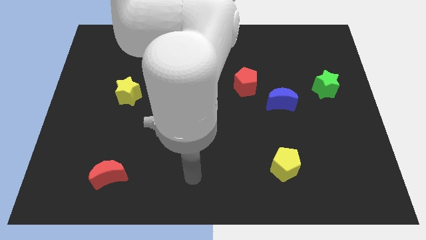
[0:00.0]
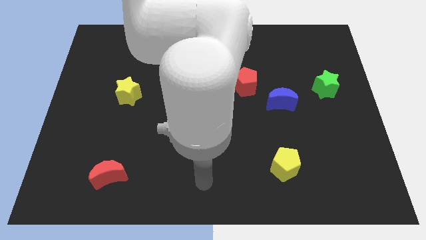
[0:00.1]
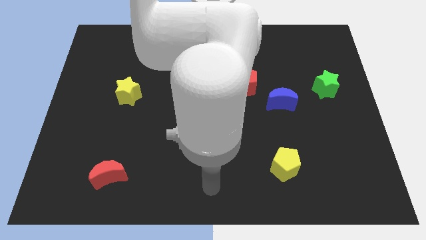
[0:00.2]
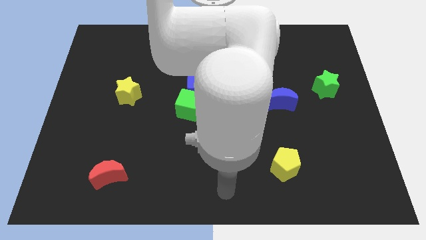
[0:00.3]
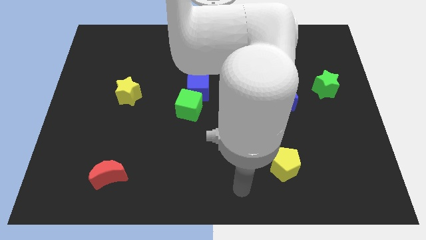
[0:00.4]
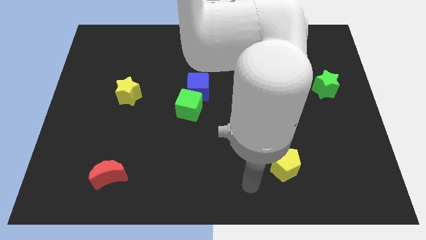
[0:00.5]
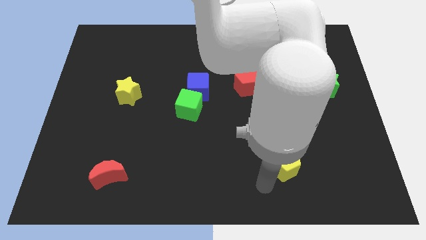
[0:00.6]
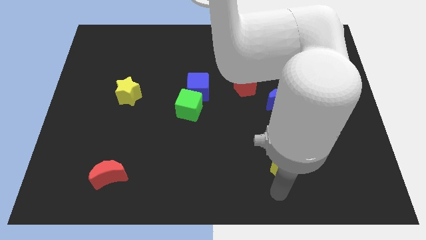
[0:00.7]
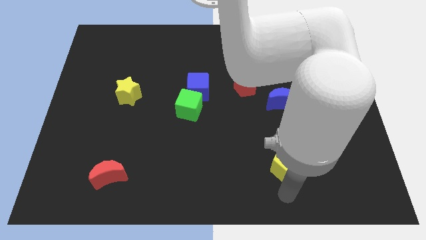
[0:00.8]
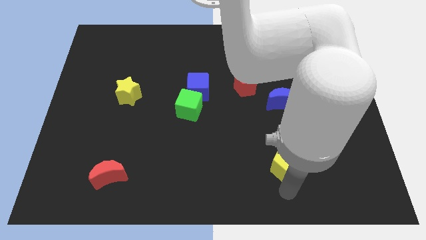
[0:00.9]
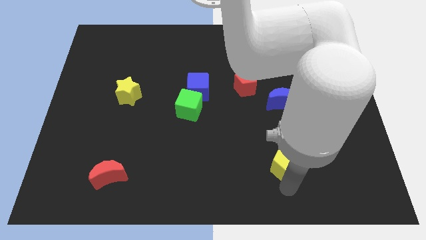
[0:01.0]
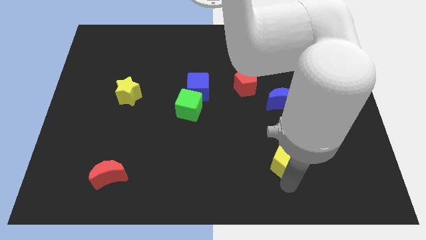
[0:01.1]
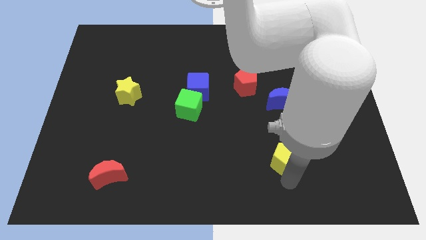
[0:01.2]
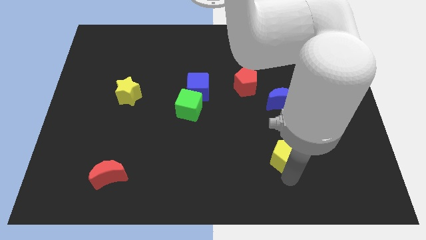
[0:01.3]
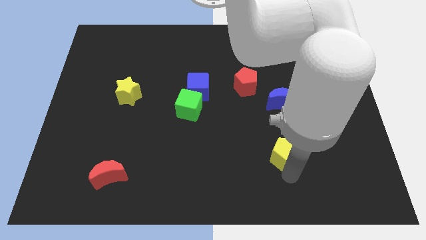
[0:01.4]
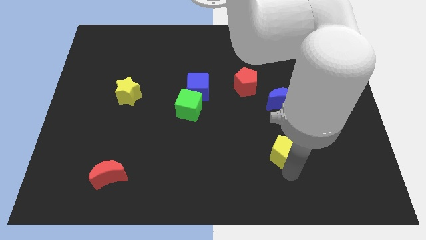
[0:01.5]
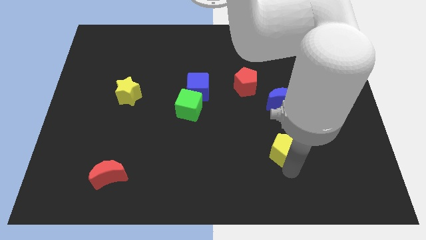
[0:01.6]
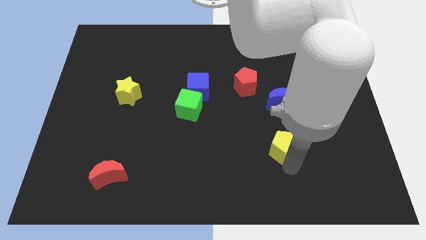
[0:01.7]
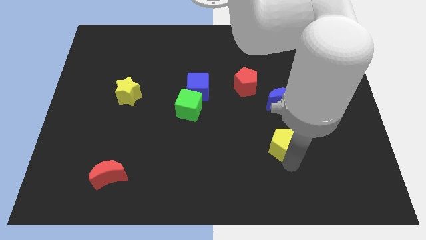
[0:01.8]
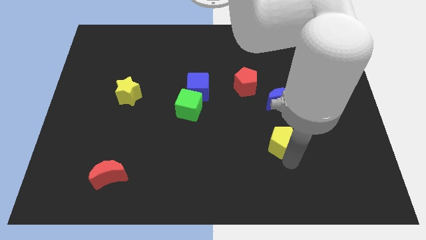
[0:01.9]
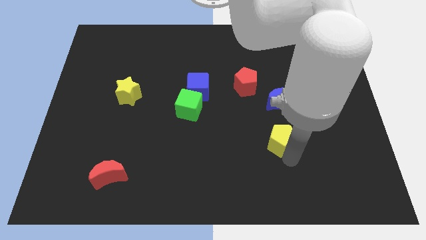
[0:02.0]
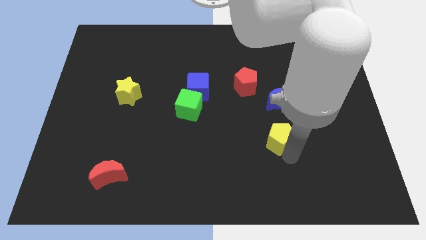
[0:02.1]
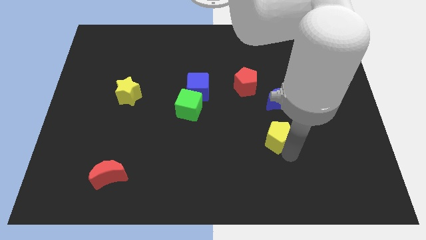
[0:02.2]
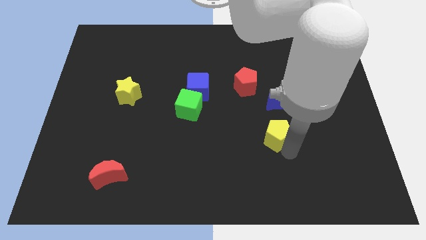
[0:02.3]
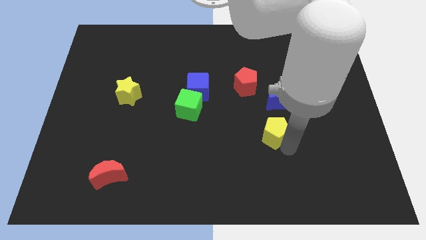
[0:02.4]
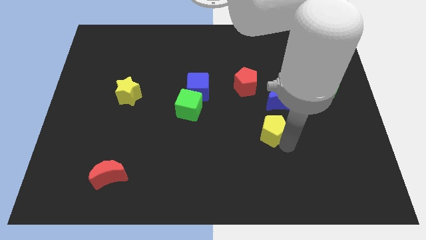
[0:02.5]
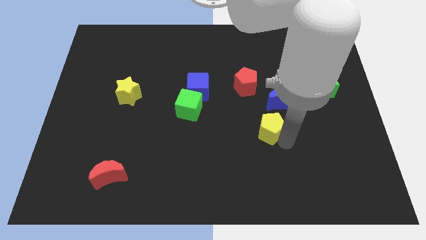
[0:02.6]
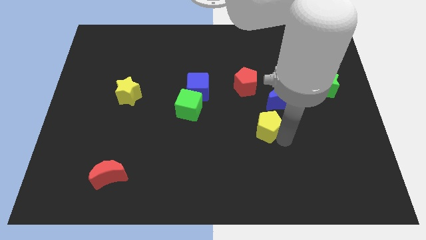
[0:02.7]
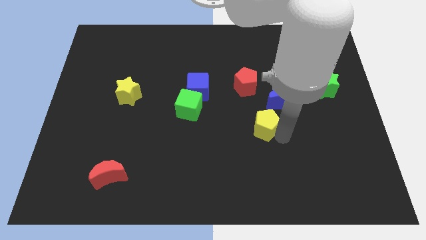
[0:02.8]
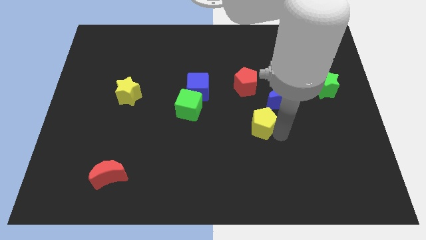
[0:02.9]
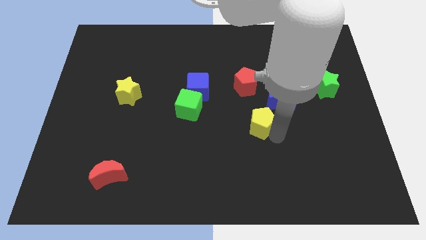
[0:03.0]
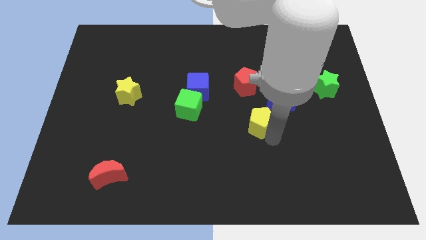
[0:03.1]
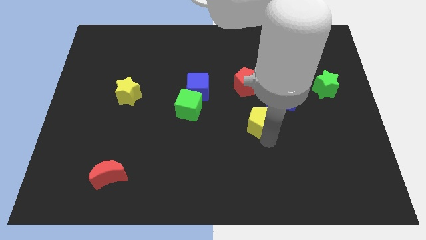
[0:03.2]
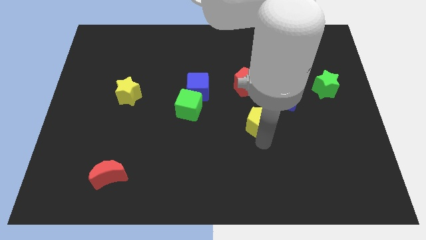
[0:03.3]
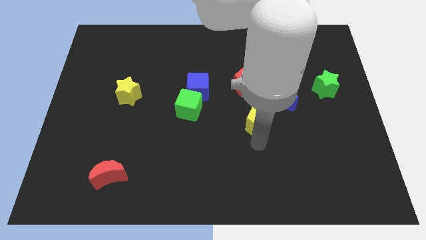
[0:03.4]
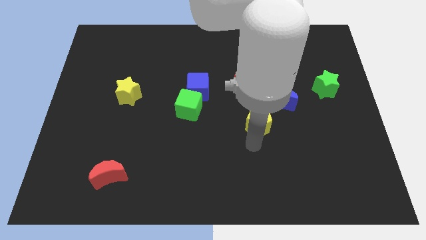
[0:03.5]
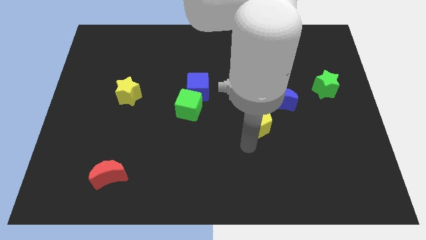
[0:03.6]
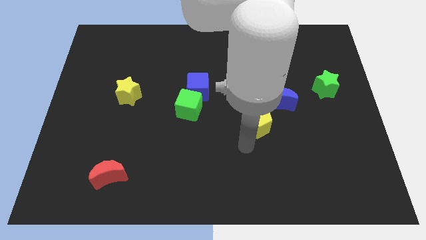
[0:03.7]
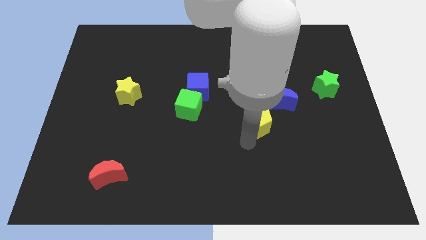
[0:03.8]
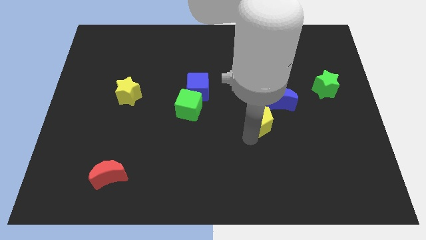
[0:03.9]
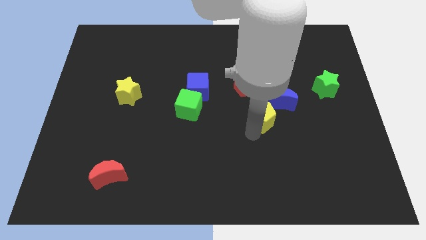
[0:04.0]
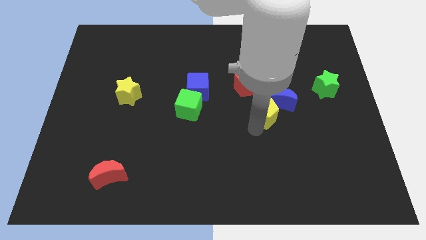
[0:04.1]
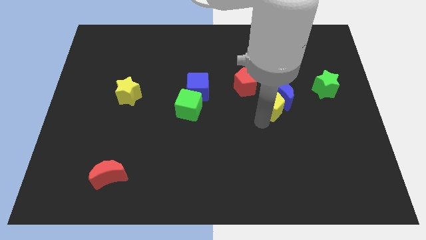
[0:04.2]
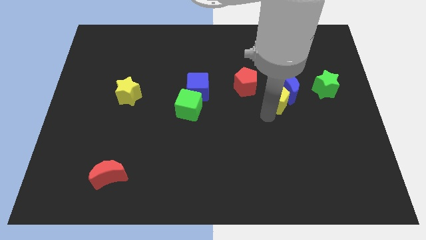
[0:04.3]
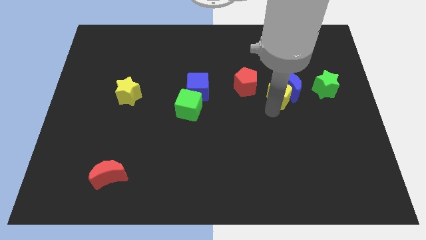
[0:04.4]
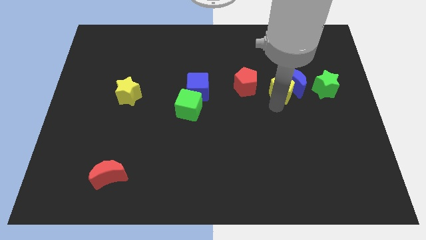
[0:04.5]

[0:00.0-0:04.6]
push the yellow pentagon upwards

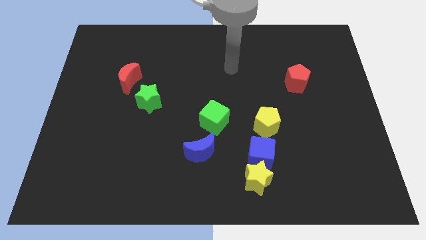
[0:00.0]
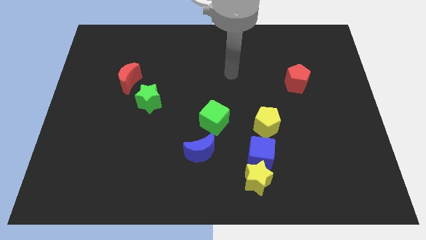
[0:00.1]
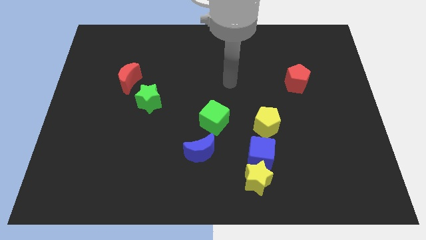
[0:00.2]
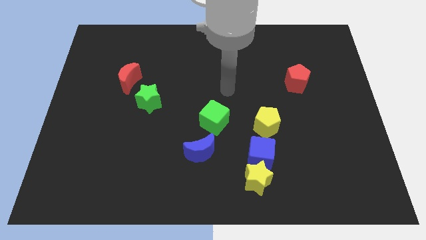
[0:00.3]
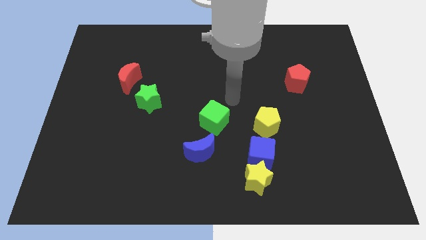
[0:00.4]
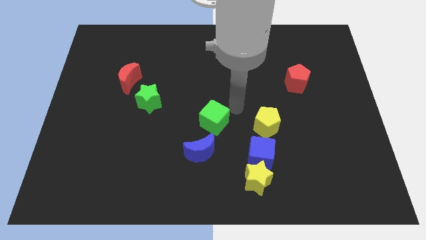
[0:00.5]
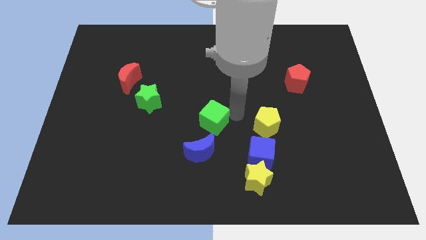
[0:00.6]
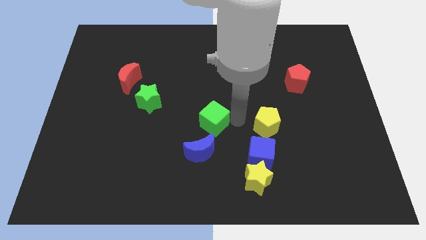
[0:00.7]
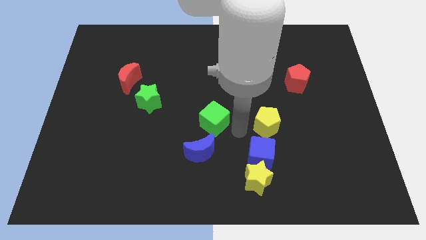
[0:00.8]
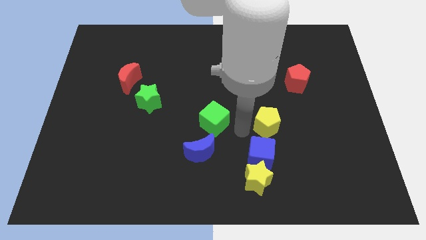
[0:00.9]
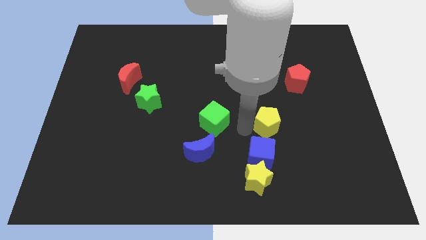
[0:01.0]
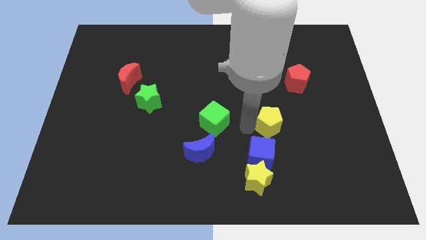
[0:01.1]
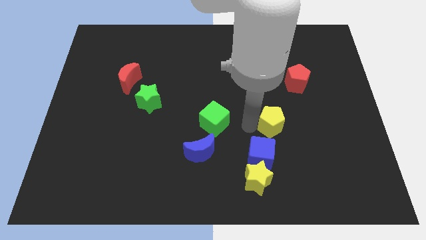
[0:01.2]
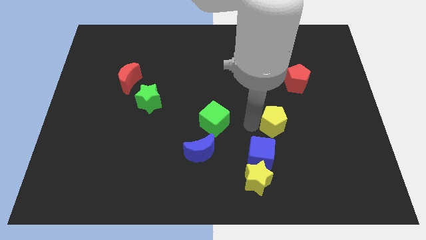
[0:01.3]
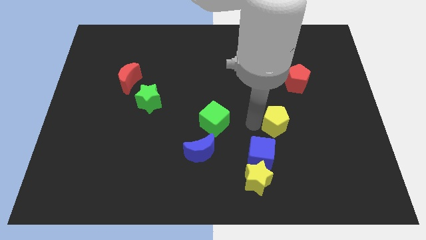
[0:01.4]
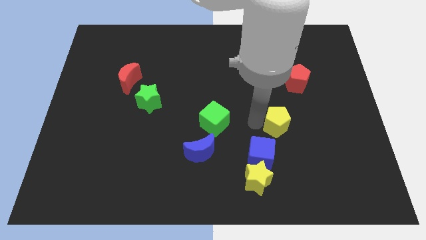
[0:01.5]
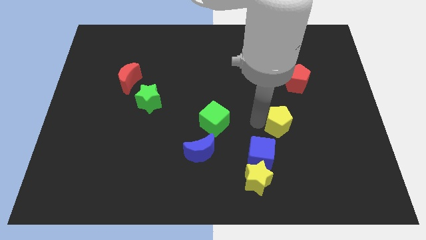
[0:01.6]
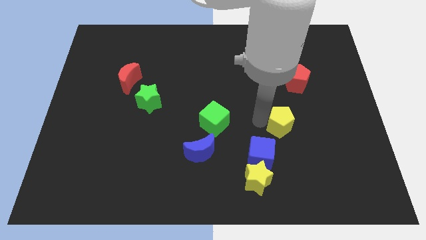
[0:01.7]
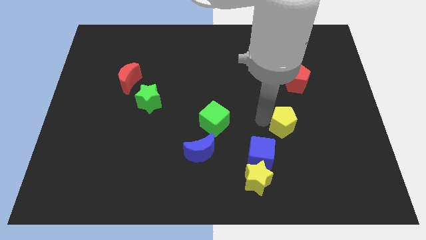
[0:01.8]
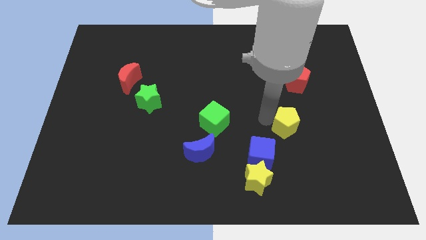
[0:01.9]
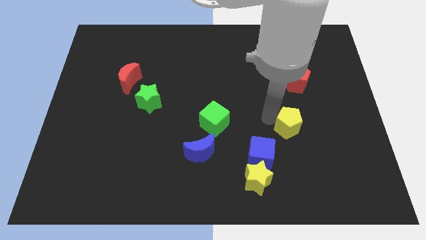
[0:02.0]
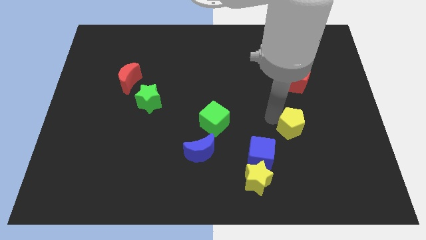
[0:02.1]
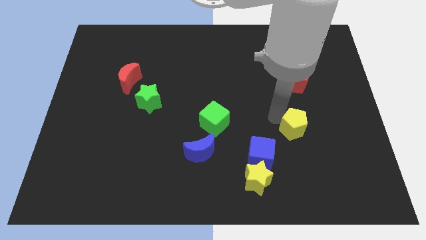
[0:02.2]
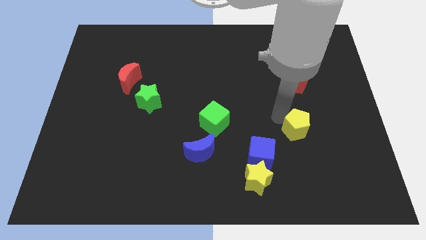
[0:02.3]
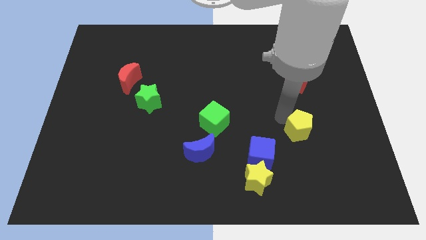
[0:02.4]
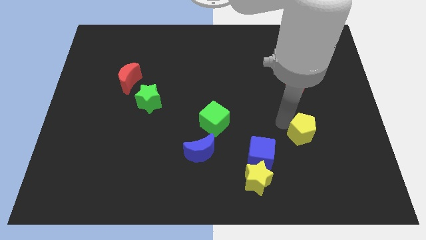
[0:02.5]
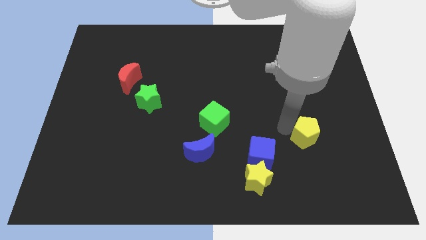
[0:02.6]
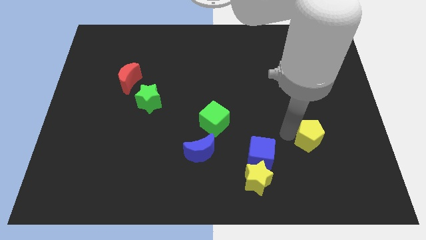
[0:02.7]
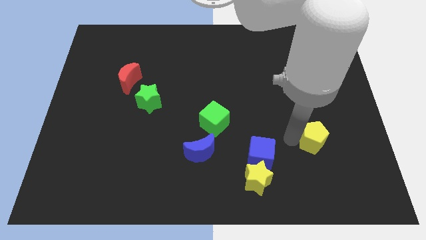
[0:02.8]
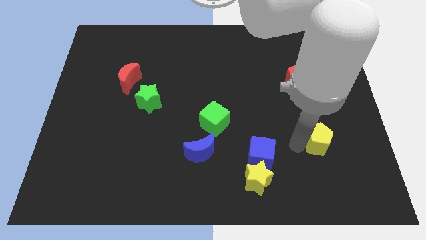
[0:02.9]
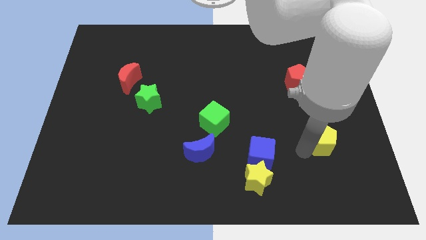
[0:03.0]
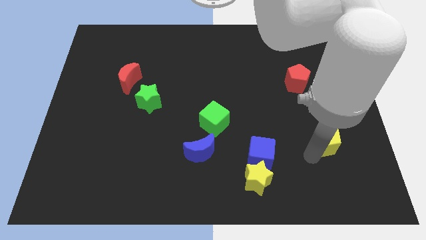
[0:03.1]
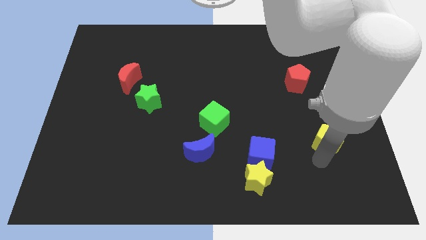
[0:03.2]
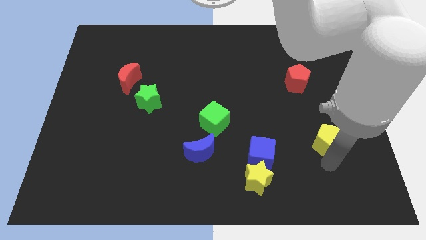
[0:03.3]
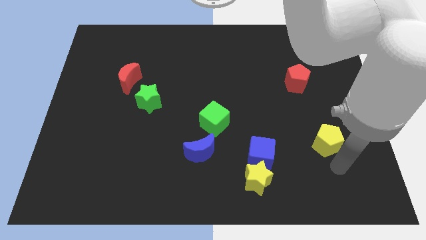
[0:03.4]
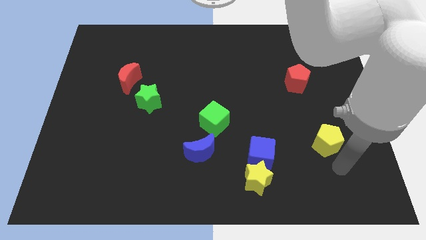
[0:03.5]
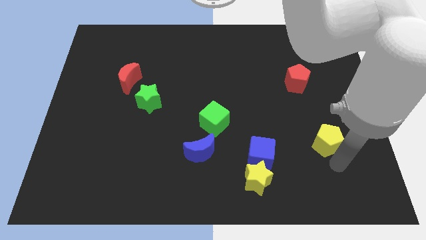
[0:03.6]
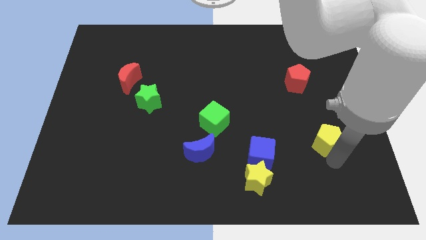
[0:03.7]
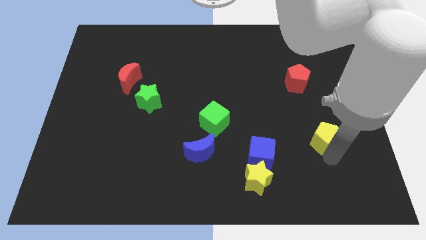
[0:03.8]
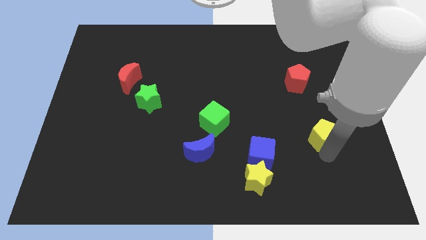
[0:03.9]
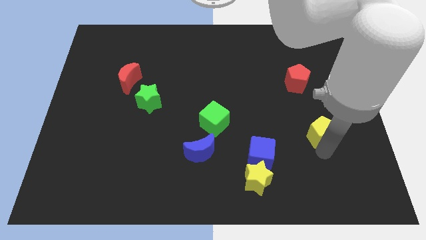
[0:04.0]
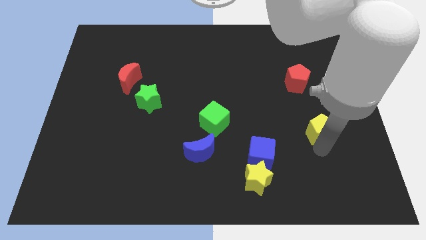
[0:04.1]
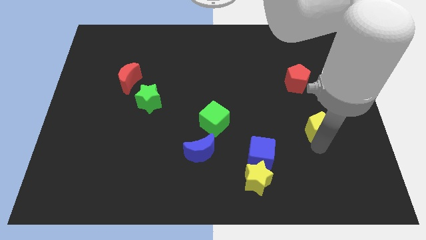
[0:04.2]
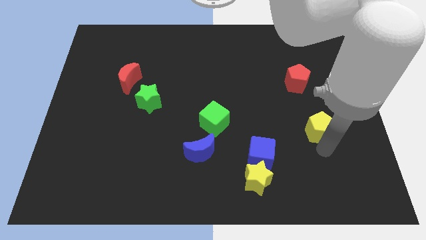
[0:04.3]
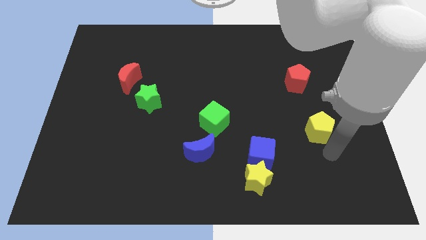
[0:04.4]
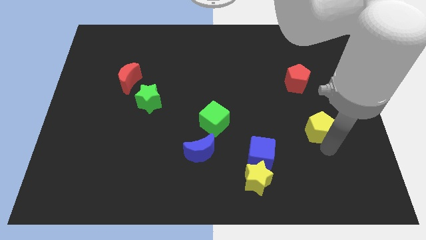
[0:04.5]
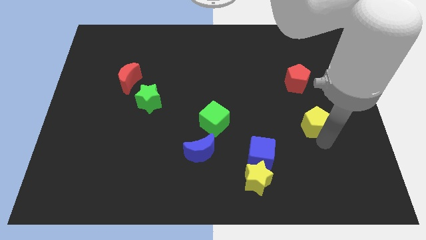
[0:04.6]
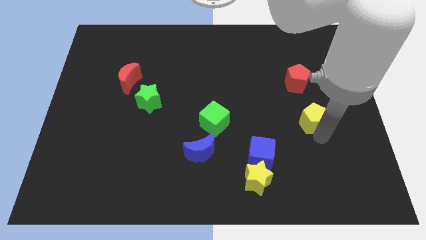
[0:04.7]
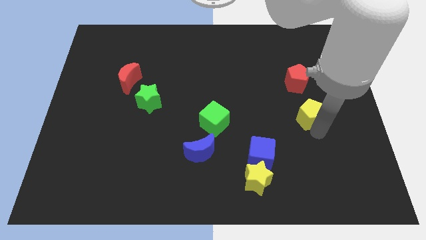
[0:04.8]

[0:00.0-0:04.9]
push the yellow pentagon upwards and right a little bit
